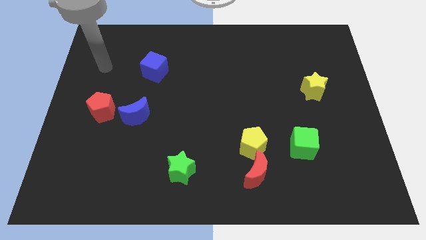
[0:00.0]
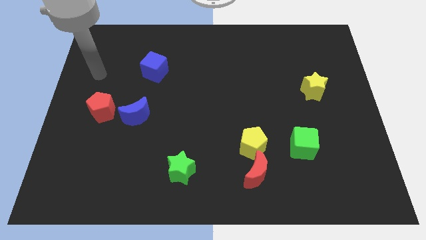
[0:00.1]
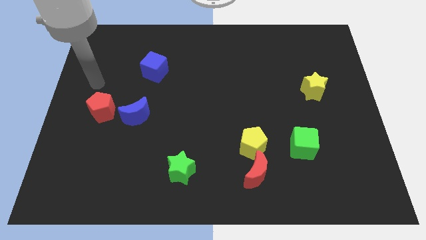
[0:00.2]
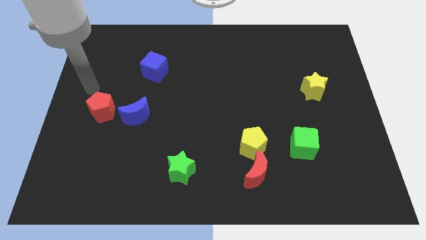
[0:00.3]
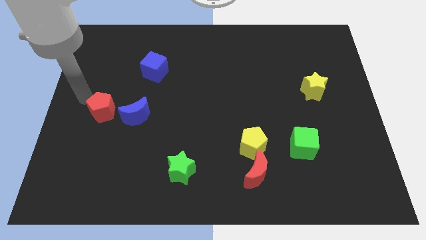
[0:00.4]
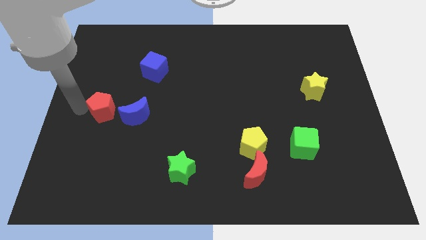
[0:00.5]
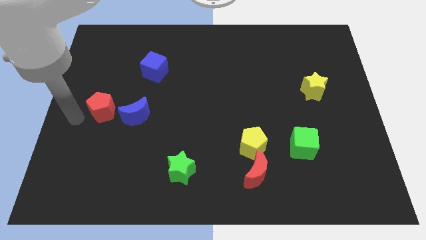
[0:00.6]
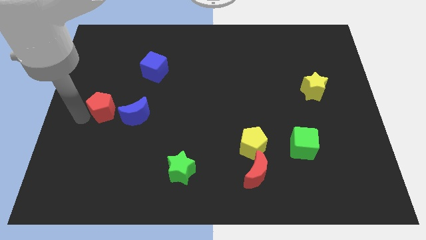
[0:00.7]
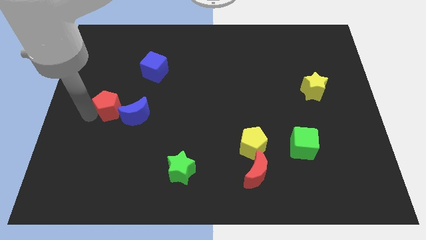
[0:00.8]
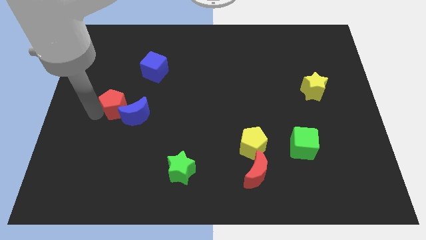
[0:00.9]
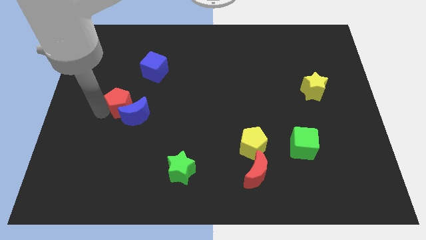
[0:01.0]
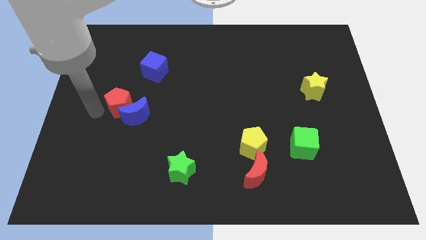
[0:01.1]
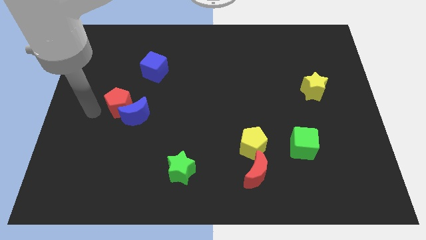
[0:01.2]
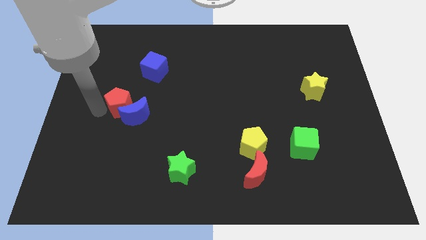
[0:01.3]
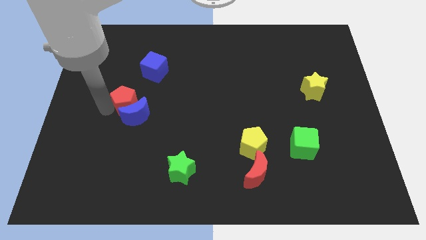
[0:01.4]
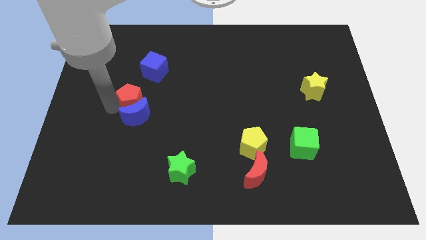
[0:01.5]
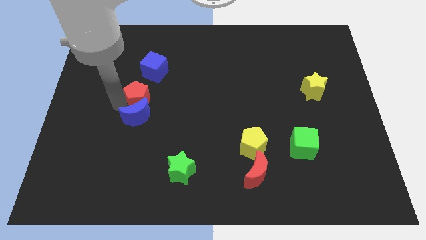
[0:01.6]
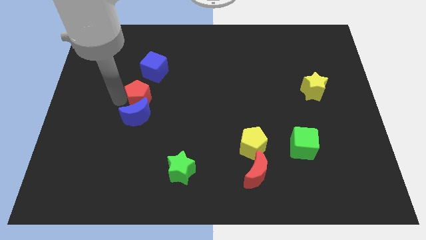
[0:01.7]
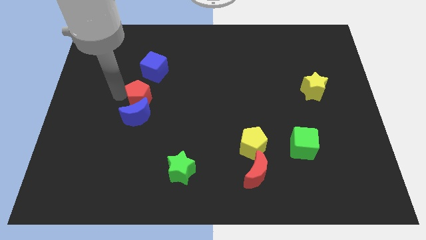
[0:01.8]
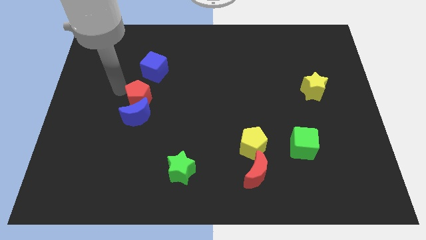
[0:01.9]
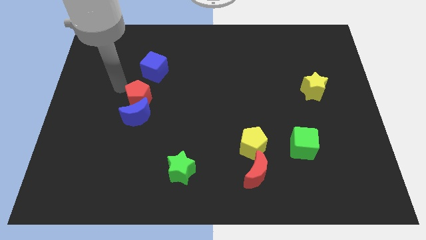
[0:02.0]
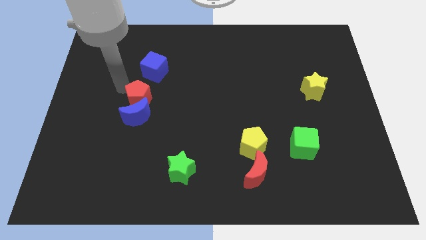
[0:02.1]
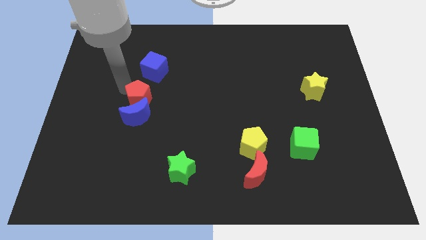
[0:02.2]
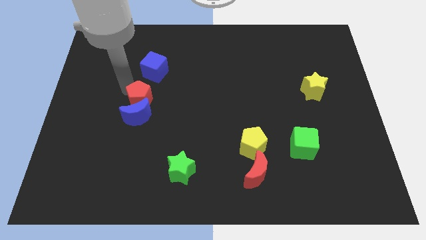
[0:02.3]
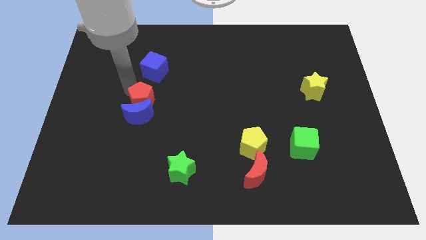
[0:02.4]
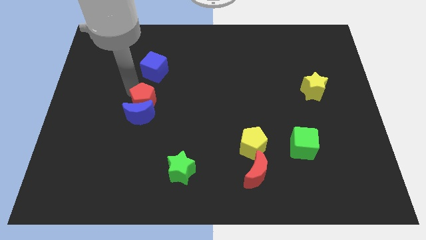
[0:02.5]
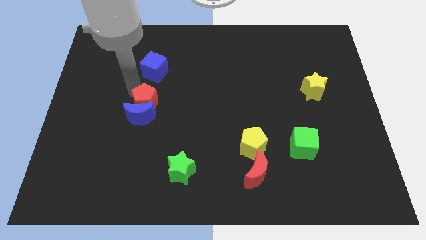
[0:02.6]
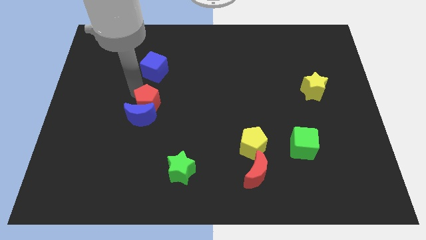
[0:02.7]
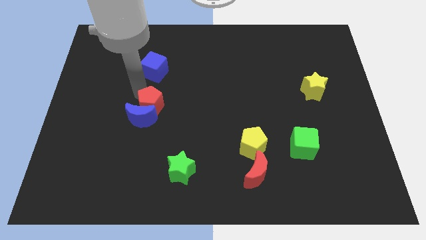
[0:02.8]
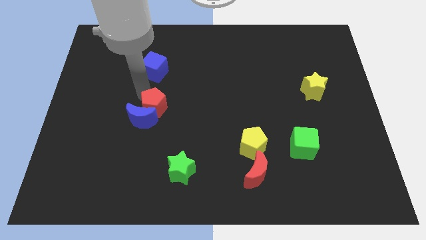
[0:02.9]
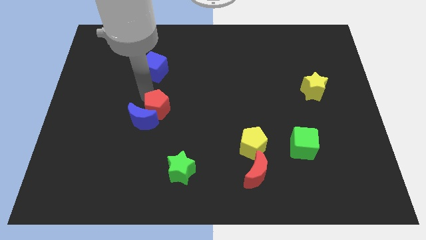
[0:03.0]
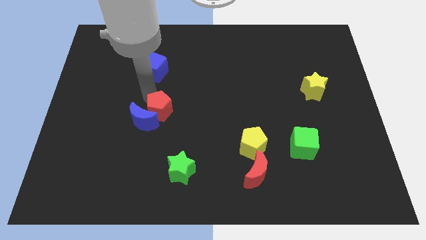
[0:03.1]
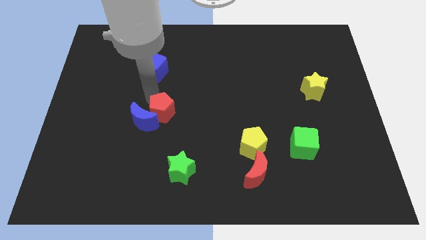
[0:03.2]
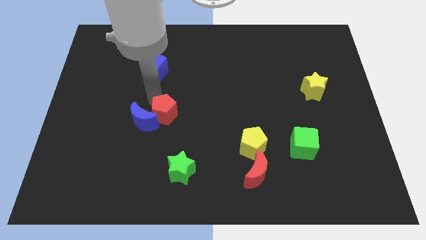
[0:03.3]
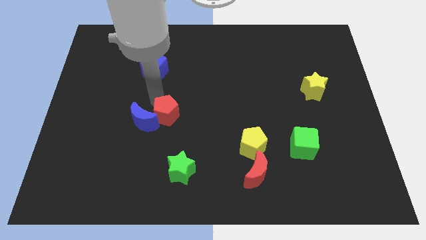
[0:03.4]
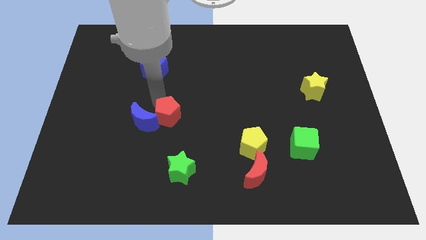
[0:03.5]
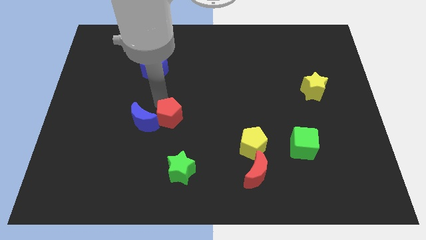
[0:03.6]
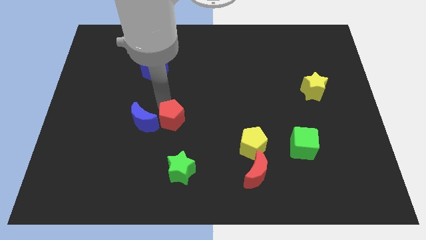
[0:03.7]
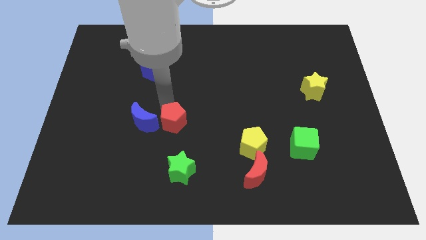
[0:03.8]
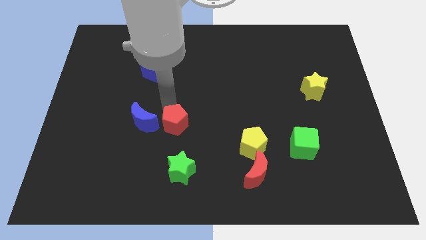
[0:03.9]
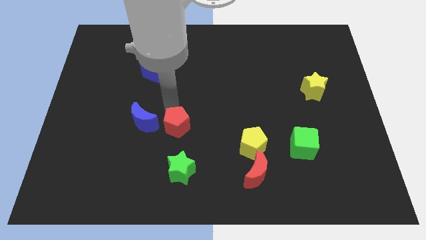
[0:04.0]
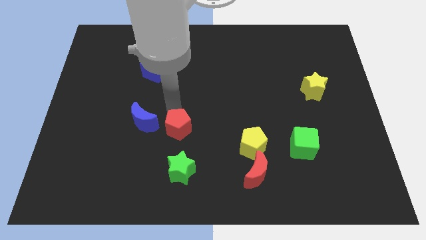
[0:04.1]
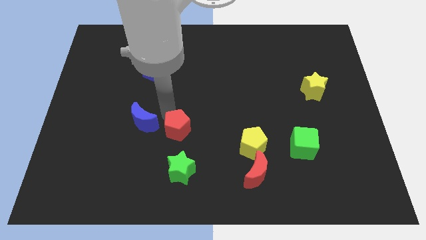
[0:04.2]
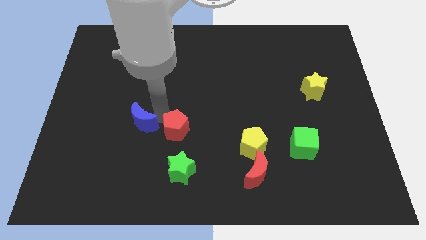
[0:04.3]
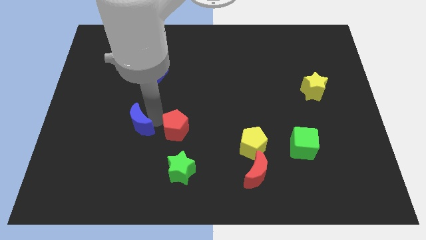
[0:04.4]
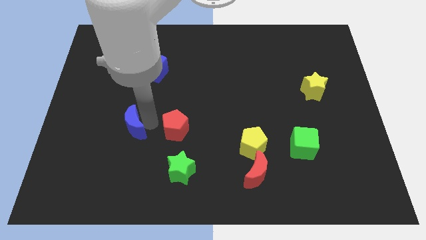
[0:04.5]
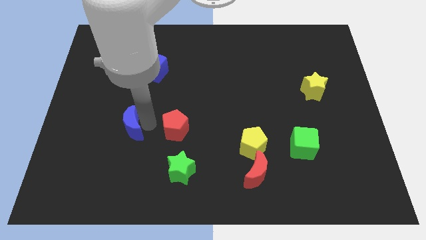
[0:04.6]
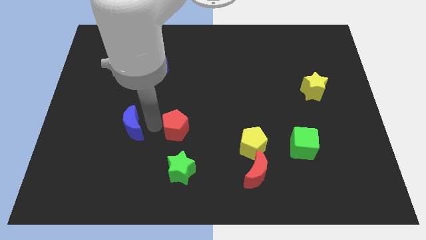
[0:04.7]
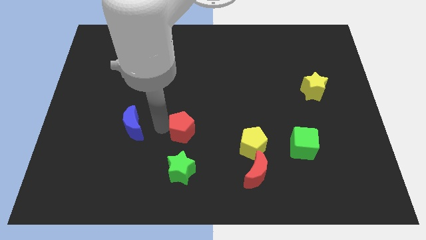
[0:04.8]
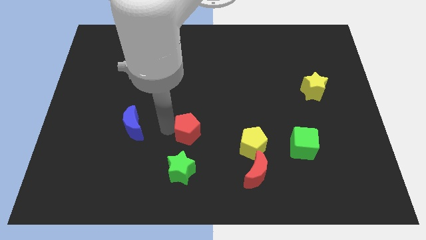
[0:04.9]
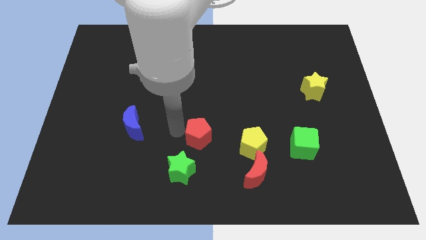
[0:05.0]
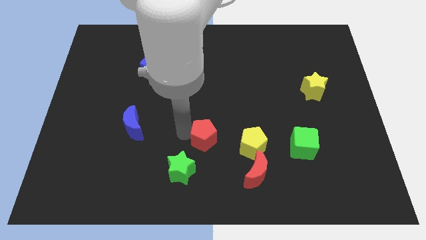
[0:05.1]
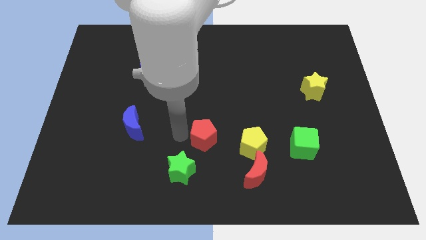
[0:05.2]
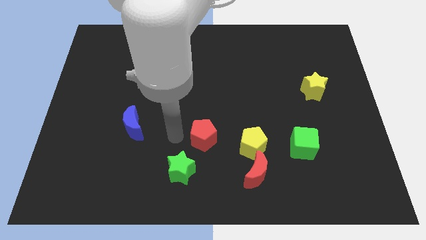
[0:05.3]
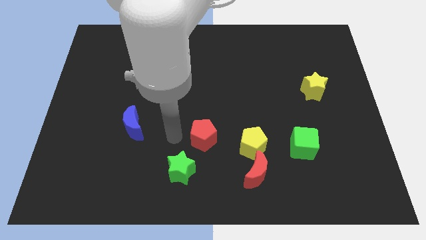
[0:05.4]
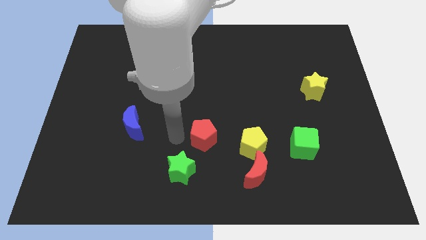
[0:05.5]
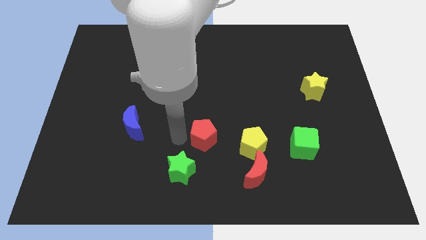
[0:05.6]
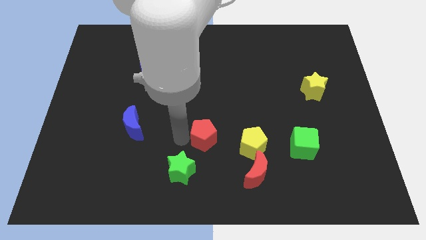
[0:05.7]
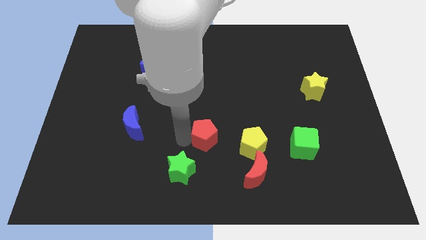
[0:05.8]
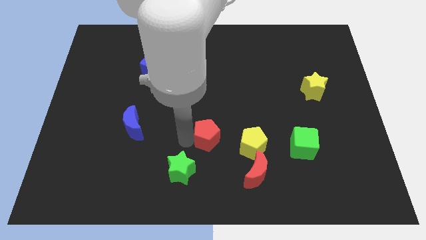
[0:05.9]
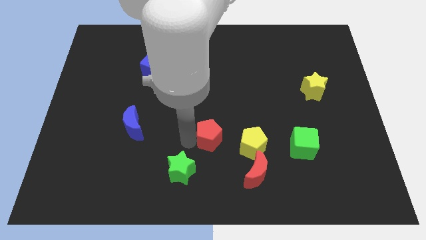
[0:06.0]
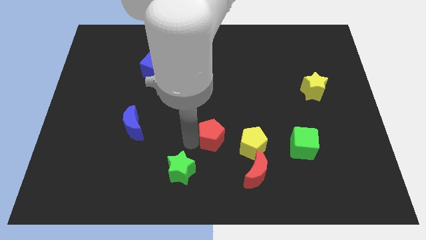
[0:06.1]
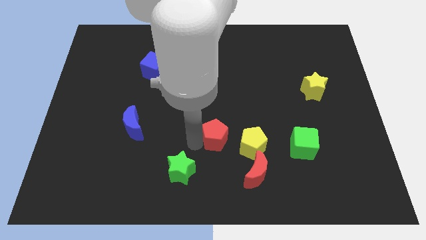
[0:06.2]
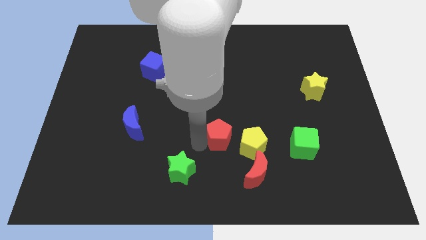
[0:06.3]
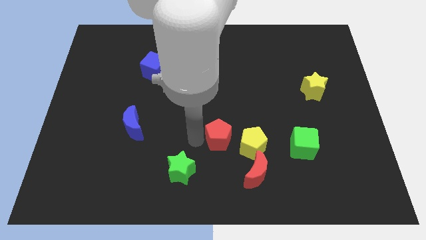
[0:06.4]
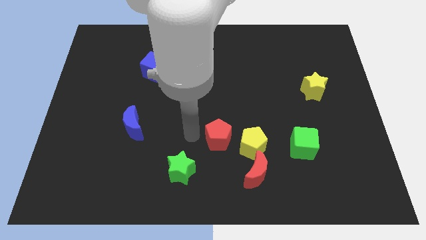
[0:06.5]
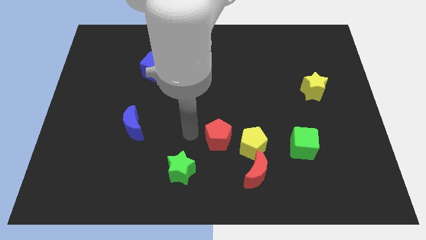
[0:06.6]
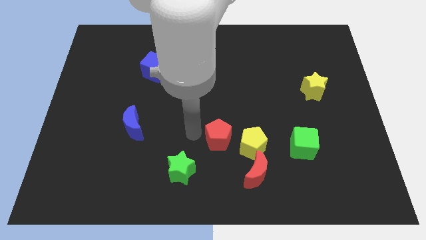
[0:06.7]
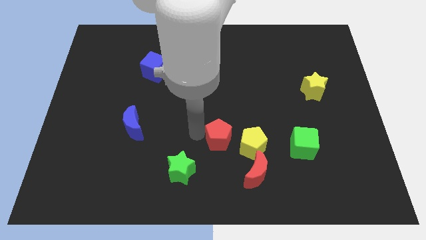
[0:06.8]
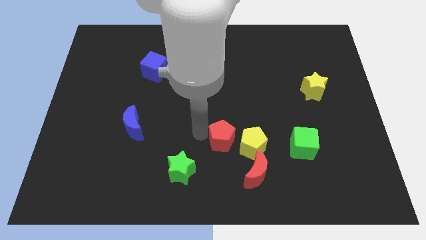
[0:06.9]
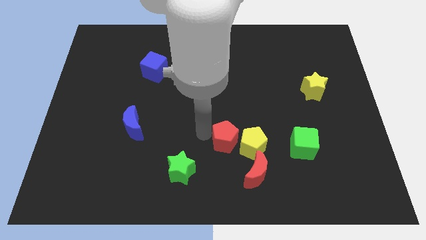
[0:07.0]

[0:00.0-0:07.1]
put the red pentagon close to the yellow pentagon

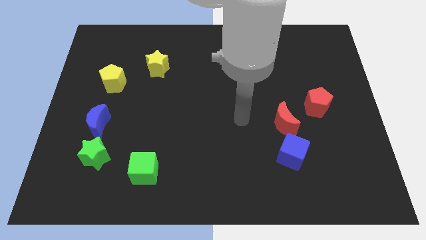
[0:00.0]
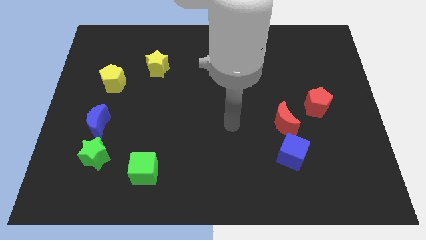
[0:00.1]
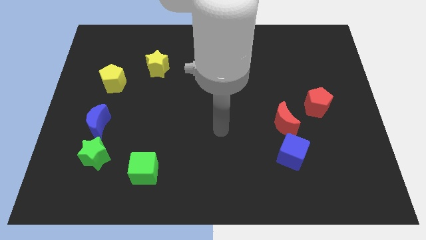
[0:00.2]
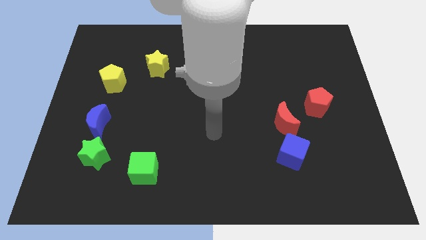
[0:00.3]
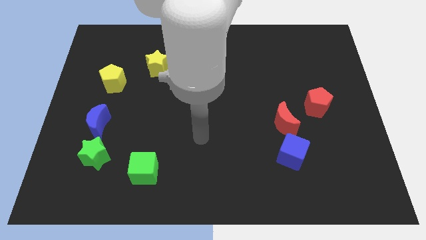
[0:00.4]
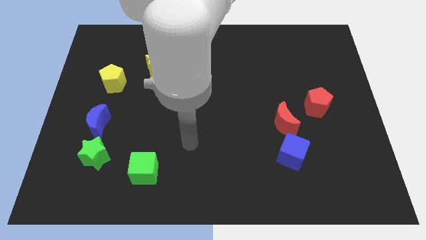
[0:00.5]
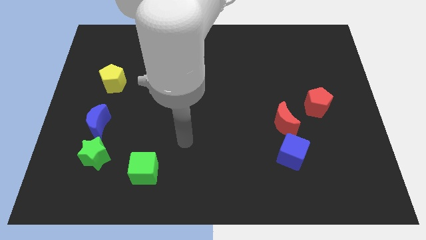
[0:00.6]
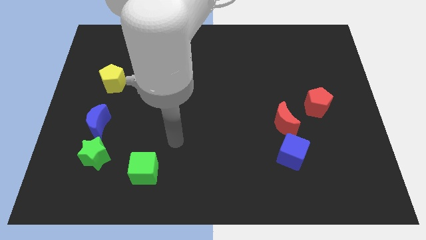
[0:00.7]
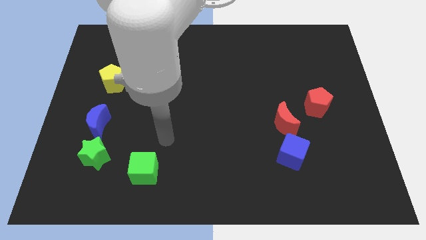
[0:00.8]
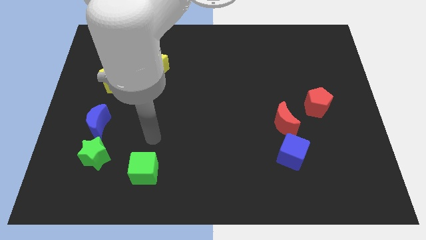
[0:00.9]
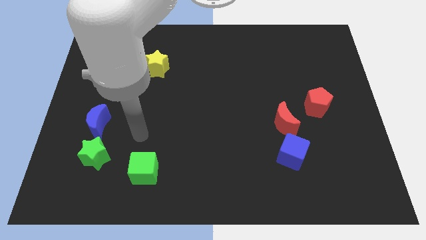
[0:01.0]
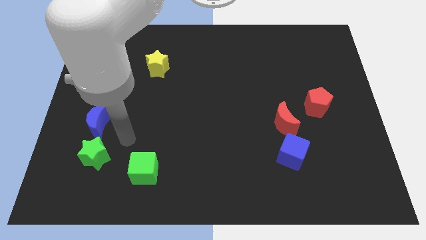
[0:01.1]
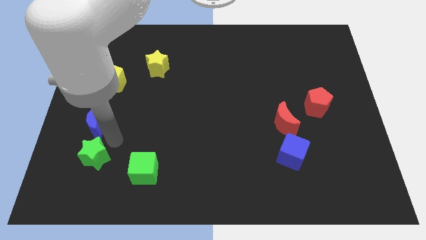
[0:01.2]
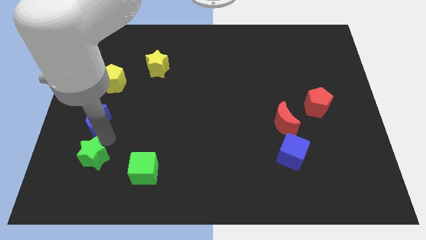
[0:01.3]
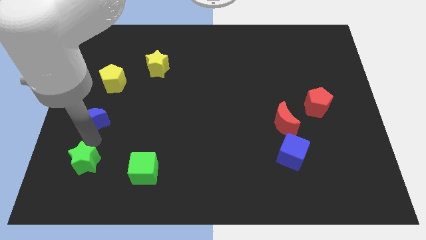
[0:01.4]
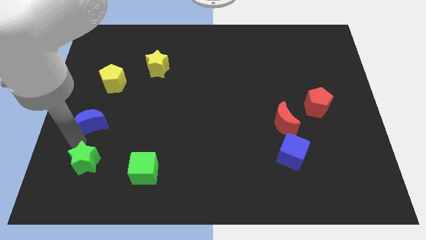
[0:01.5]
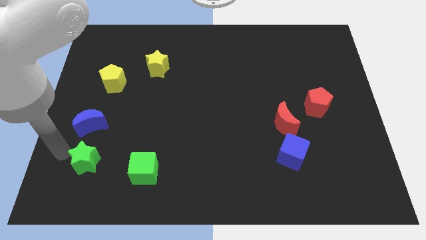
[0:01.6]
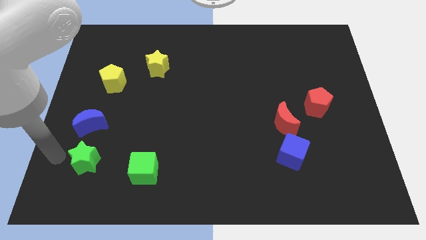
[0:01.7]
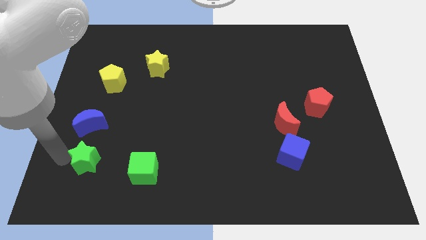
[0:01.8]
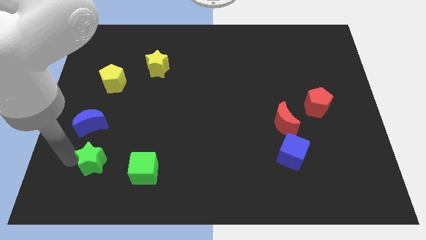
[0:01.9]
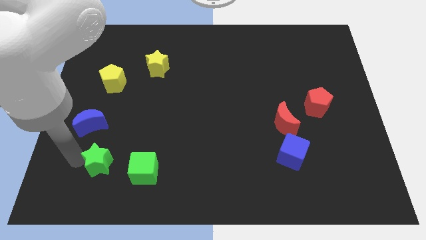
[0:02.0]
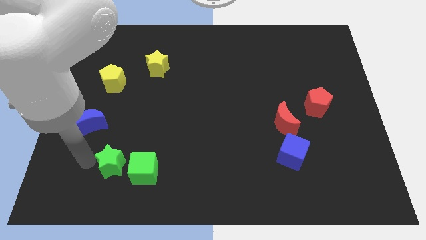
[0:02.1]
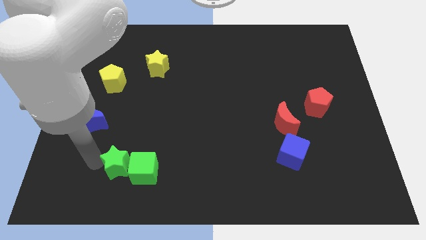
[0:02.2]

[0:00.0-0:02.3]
move the green star next to the green cube
